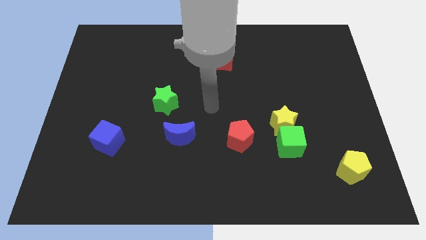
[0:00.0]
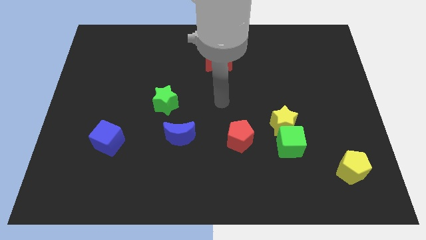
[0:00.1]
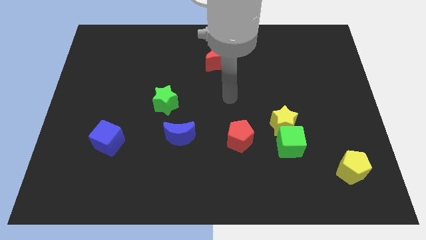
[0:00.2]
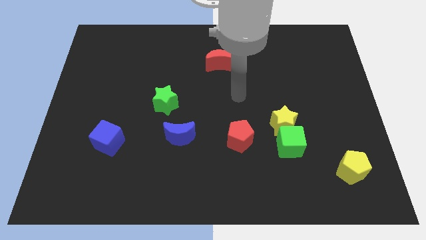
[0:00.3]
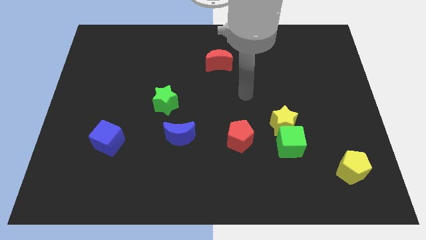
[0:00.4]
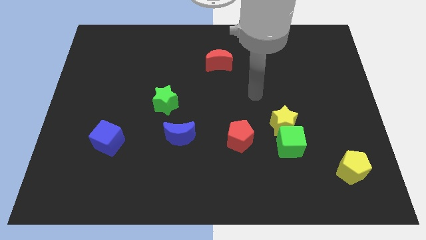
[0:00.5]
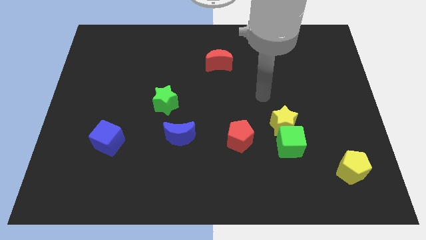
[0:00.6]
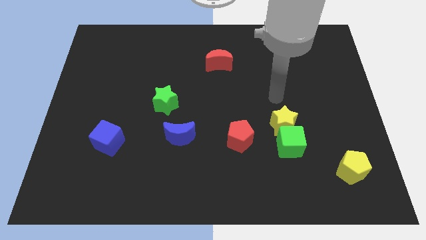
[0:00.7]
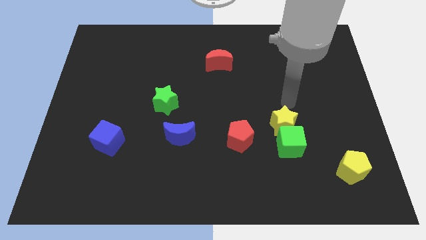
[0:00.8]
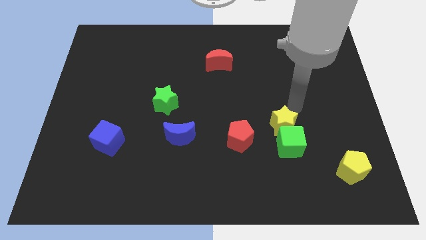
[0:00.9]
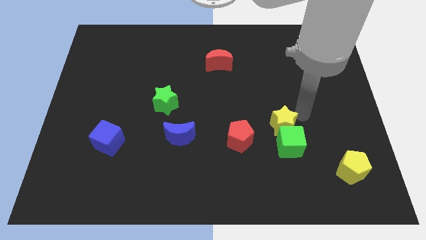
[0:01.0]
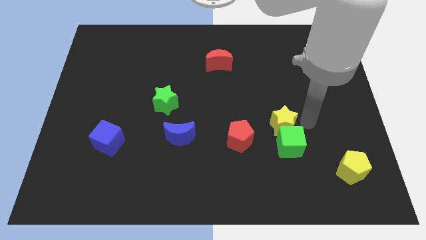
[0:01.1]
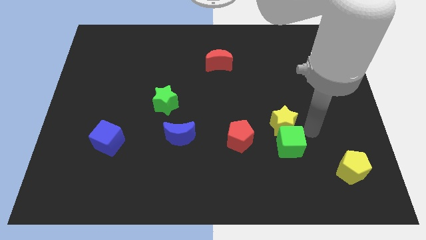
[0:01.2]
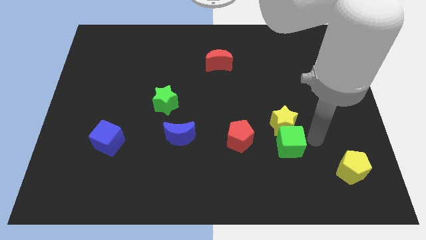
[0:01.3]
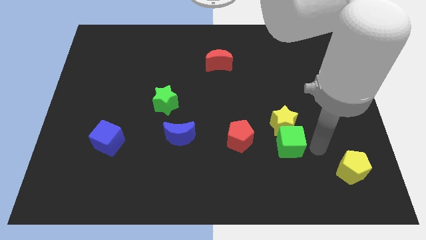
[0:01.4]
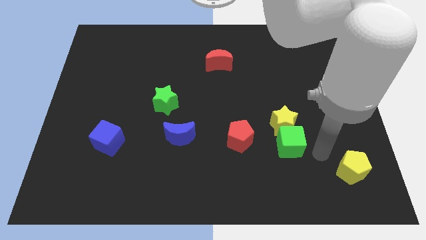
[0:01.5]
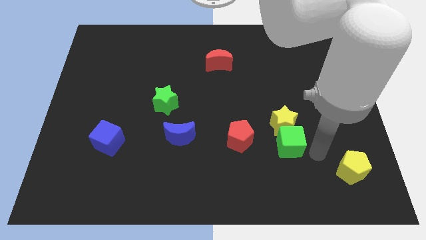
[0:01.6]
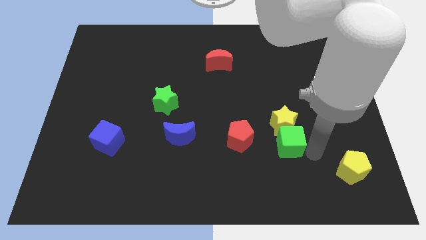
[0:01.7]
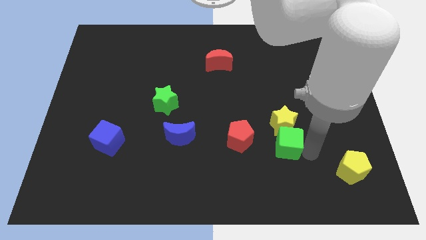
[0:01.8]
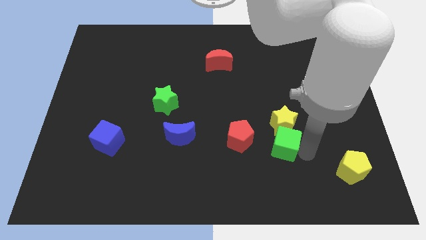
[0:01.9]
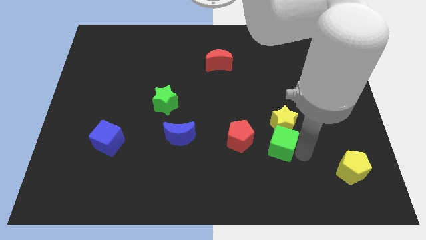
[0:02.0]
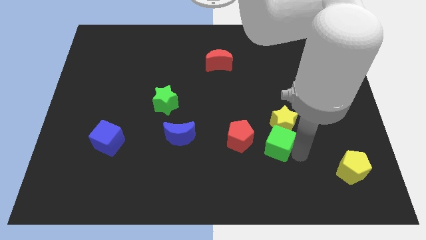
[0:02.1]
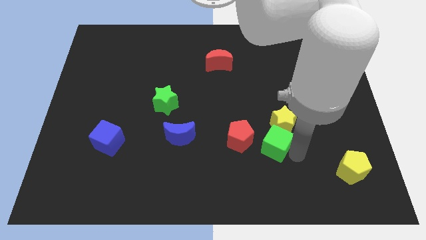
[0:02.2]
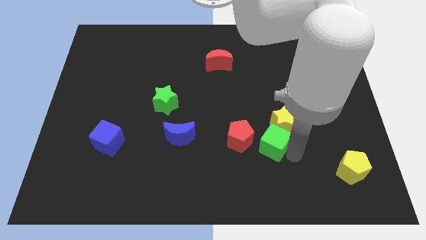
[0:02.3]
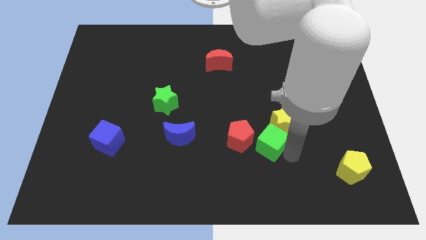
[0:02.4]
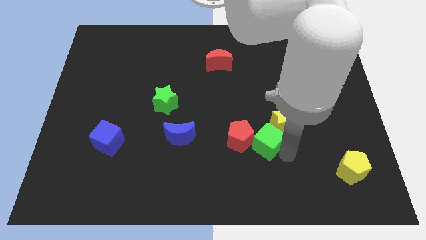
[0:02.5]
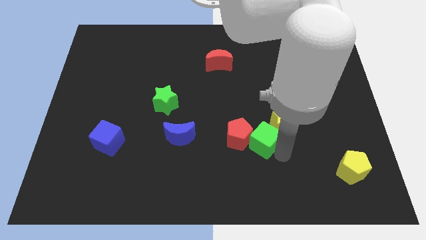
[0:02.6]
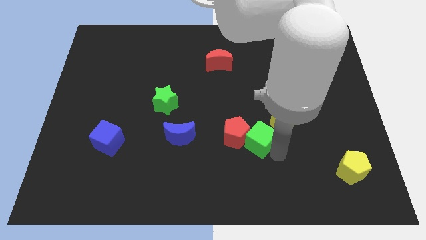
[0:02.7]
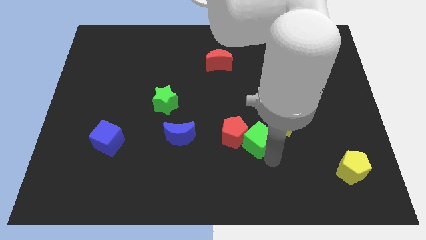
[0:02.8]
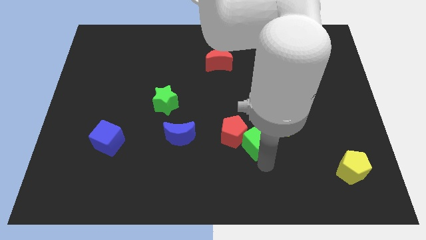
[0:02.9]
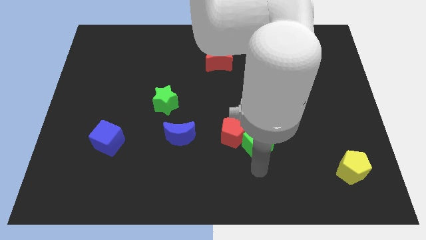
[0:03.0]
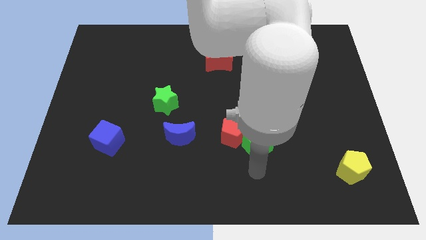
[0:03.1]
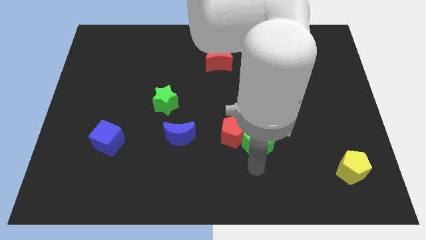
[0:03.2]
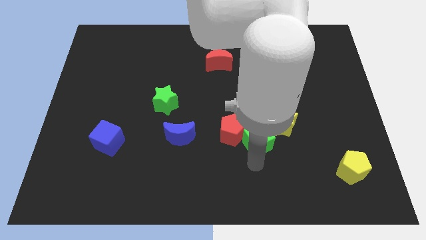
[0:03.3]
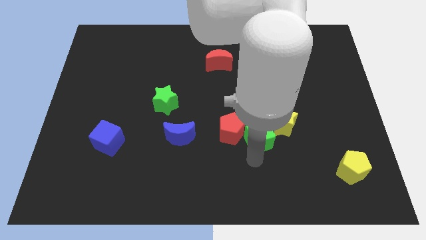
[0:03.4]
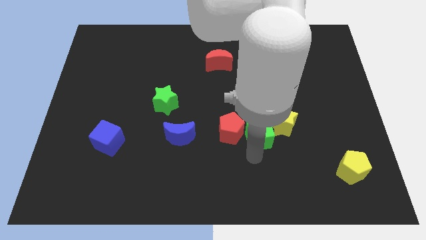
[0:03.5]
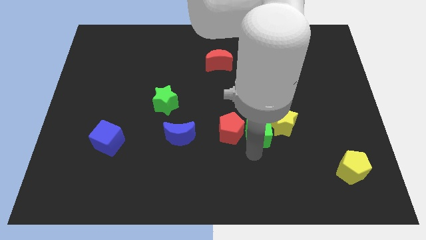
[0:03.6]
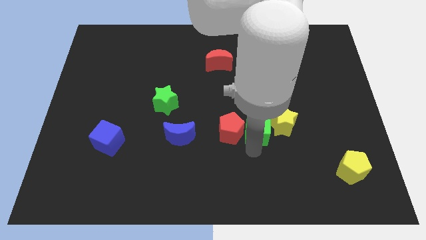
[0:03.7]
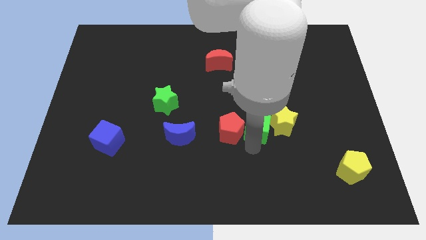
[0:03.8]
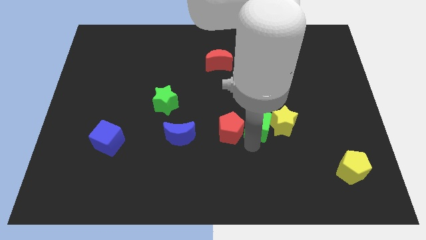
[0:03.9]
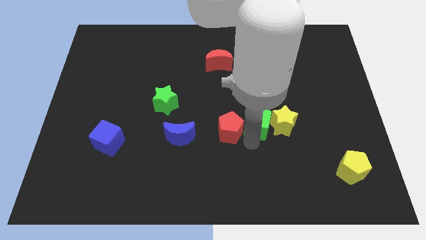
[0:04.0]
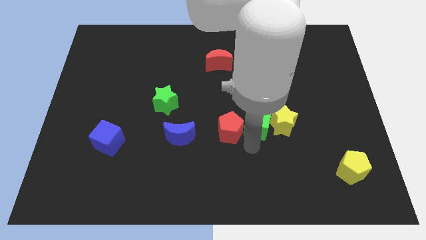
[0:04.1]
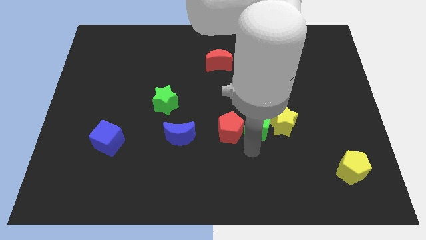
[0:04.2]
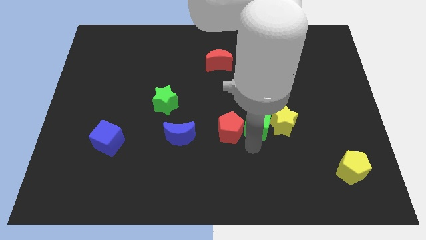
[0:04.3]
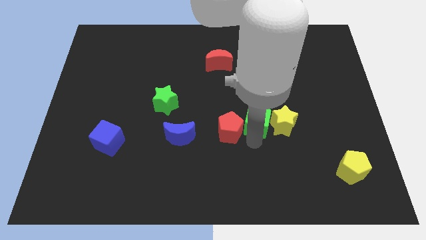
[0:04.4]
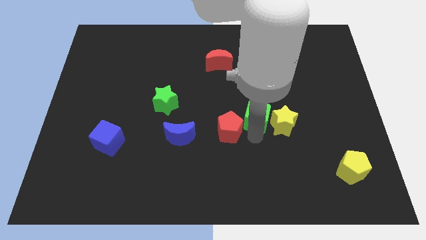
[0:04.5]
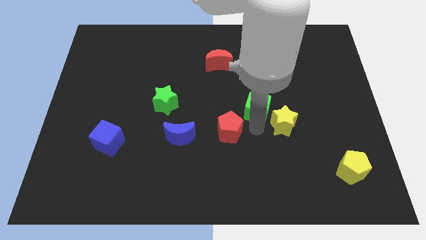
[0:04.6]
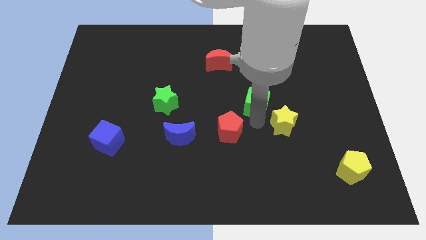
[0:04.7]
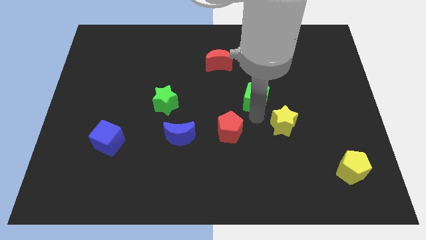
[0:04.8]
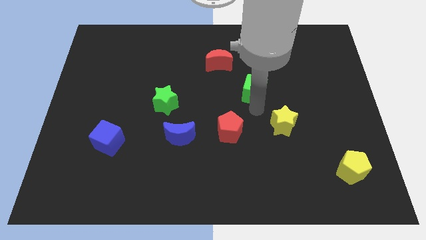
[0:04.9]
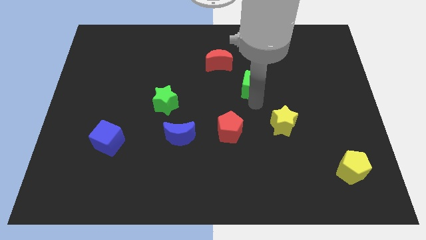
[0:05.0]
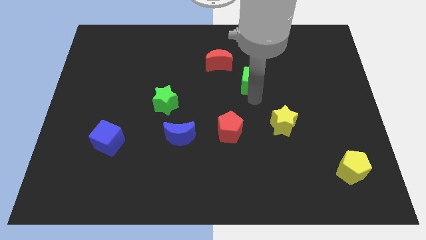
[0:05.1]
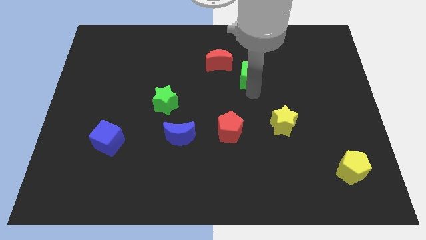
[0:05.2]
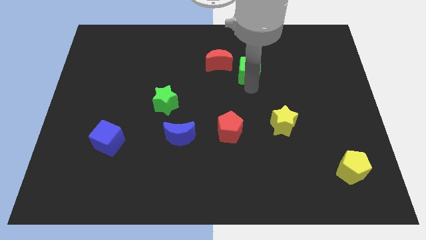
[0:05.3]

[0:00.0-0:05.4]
slide the green cube to the right of the red moon

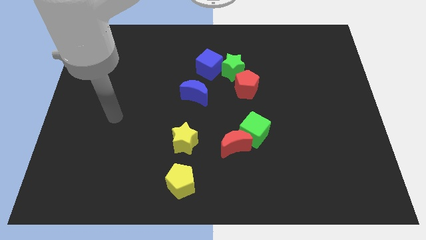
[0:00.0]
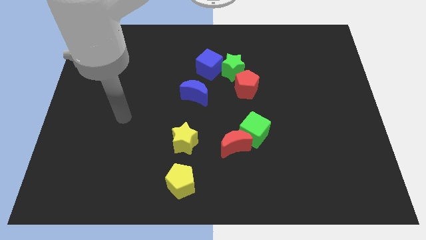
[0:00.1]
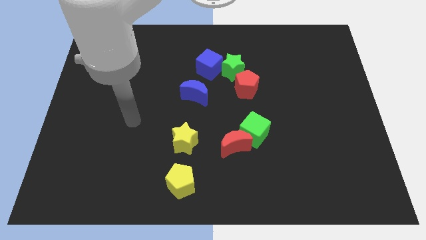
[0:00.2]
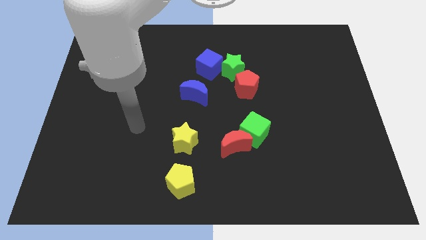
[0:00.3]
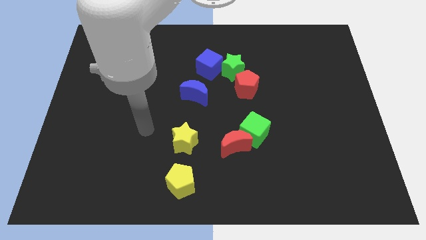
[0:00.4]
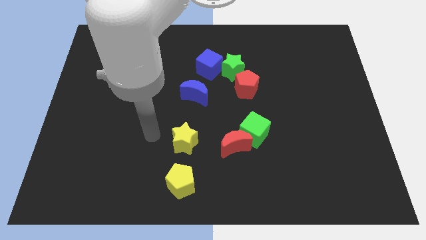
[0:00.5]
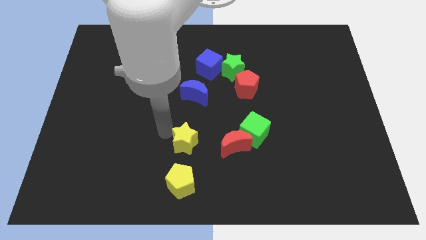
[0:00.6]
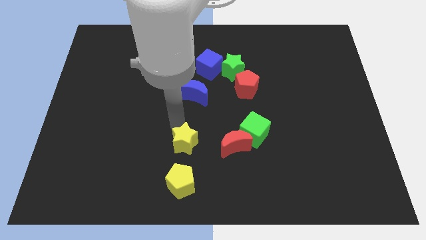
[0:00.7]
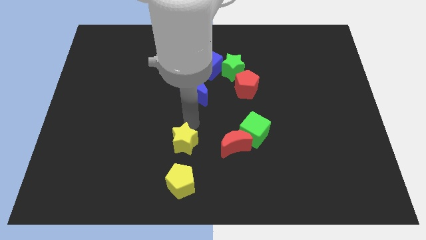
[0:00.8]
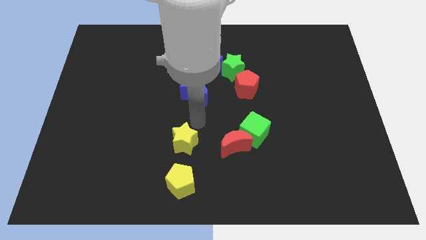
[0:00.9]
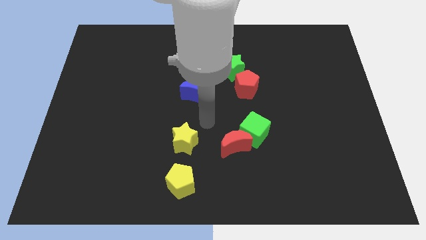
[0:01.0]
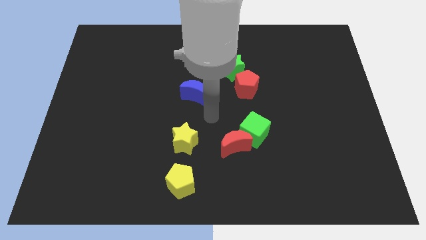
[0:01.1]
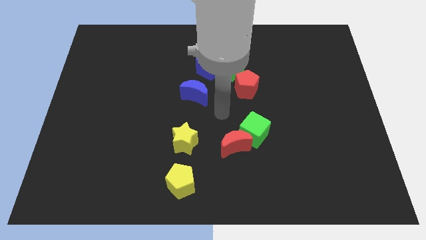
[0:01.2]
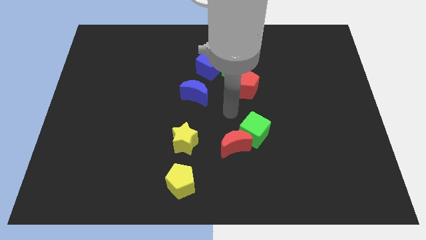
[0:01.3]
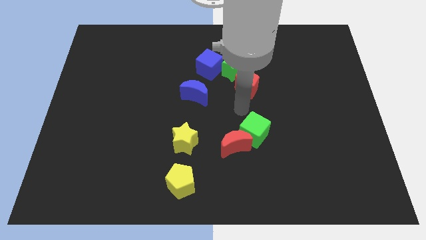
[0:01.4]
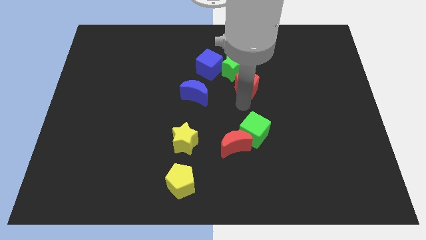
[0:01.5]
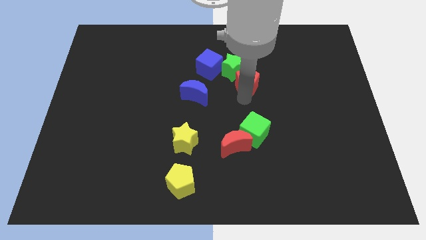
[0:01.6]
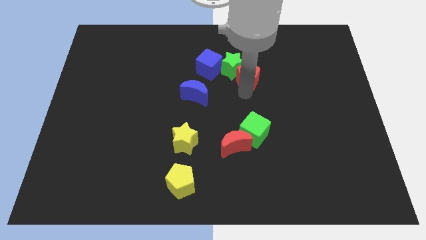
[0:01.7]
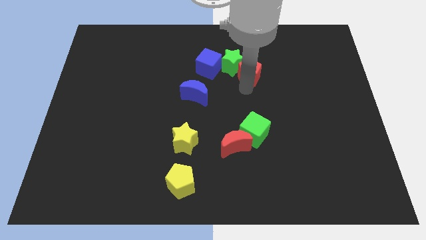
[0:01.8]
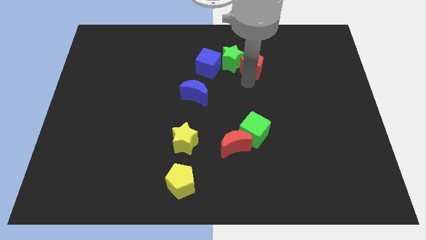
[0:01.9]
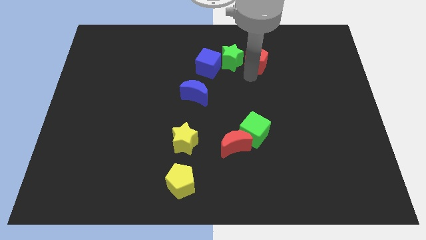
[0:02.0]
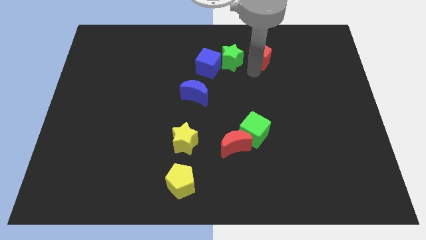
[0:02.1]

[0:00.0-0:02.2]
put the red pentagon to the top right side of the green star
